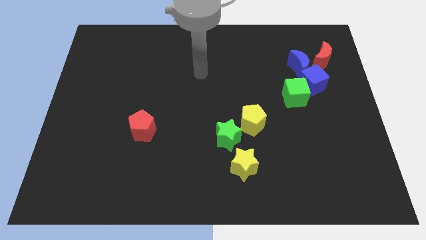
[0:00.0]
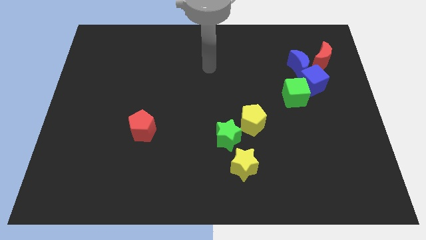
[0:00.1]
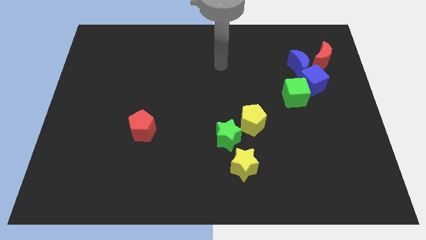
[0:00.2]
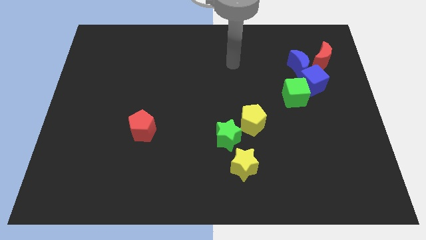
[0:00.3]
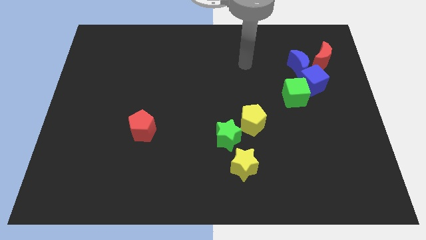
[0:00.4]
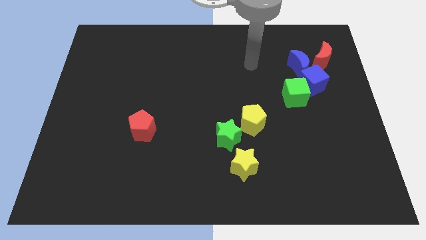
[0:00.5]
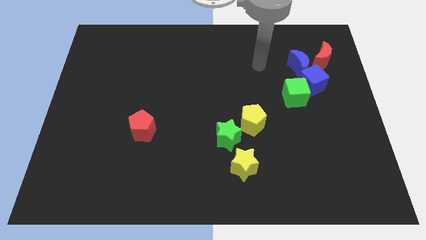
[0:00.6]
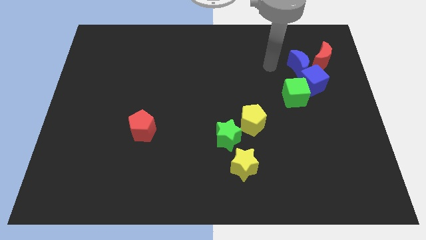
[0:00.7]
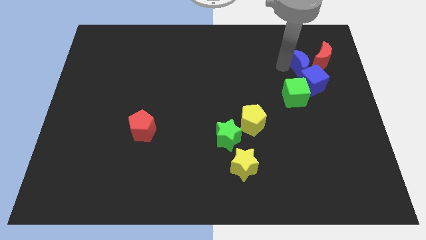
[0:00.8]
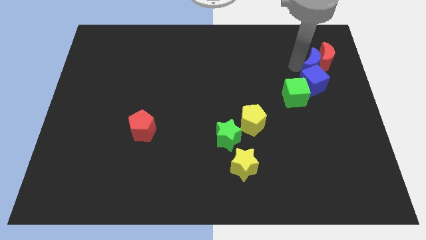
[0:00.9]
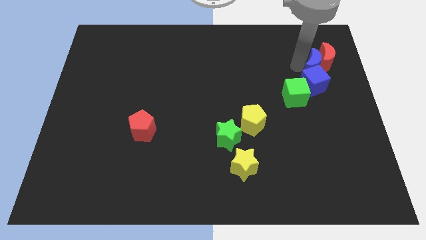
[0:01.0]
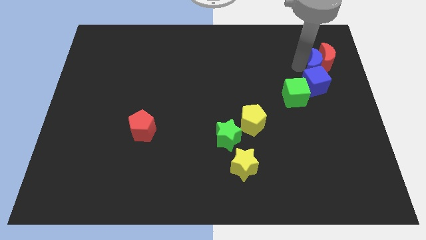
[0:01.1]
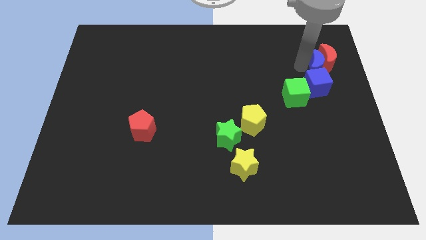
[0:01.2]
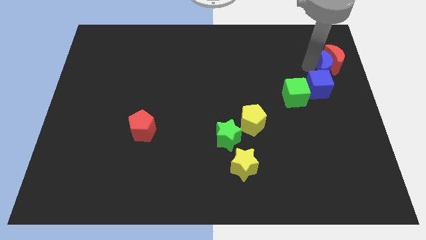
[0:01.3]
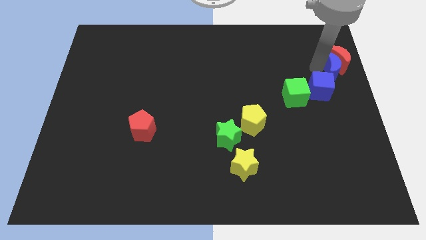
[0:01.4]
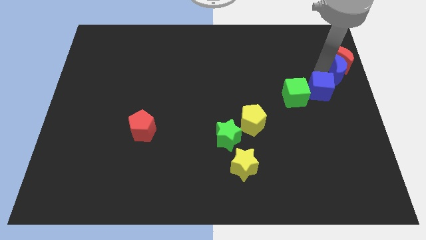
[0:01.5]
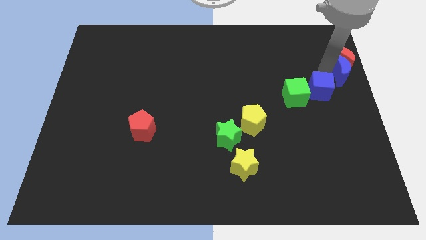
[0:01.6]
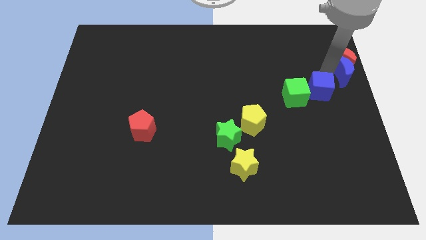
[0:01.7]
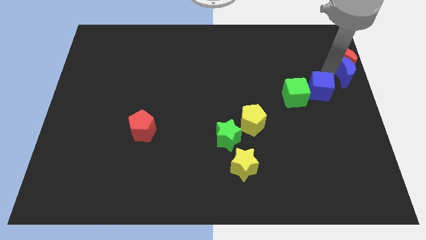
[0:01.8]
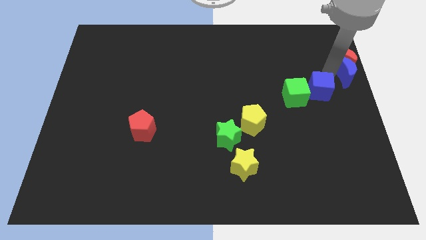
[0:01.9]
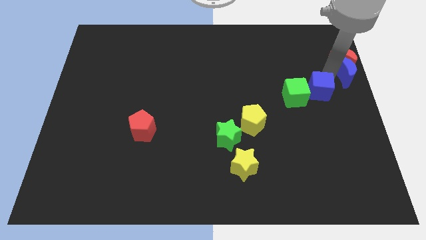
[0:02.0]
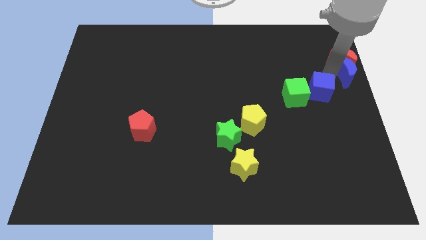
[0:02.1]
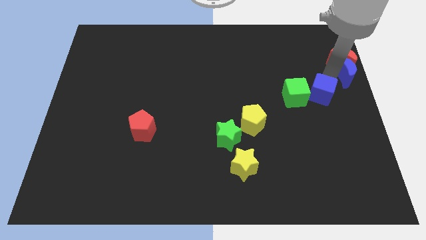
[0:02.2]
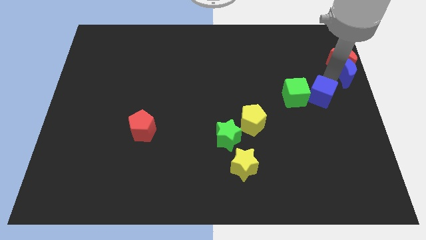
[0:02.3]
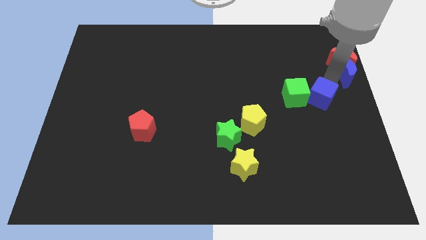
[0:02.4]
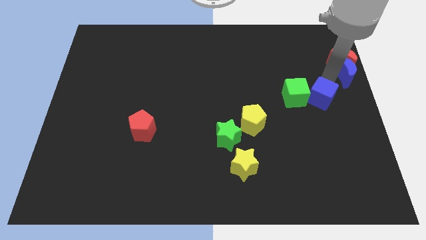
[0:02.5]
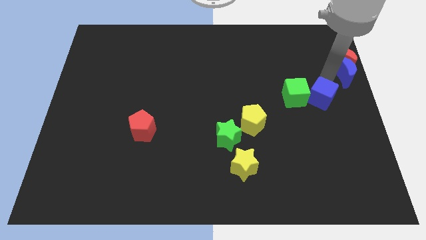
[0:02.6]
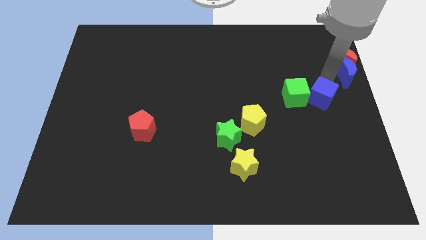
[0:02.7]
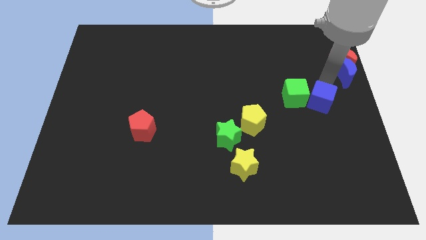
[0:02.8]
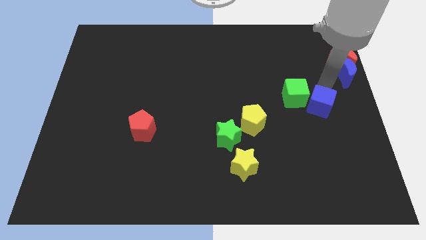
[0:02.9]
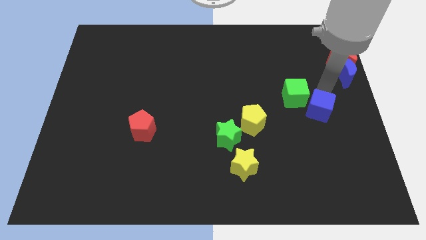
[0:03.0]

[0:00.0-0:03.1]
separate the blue cube from the blue moon, green cube, and red moon

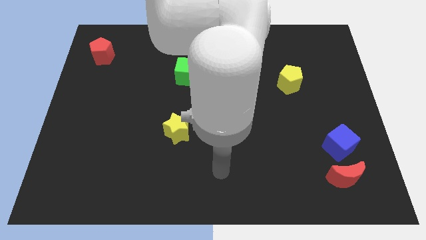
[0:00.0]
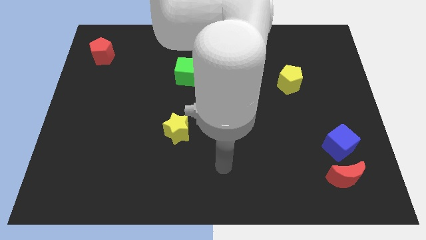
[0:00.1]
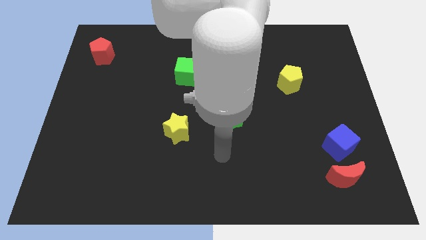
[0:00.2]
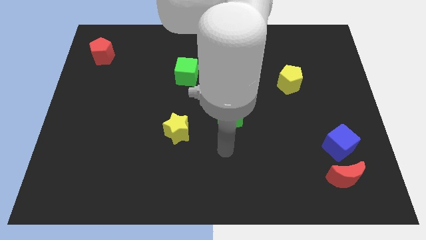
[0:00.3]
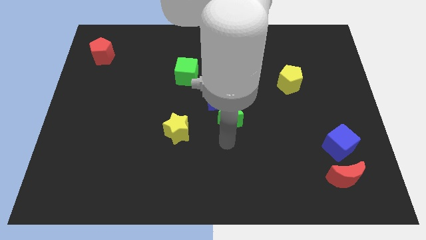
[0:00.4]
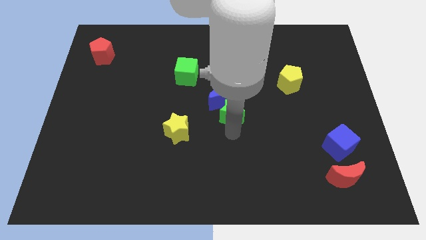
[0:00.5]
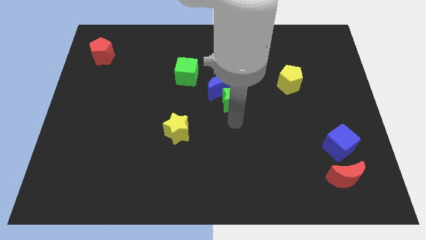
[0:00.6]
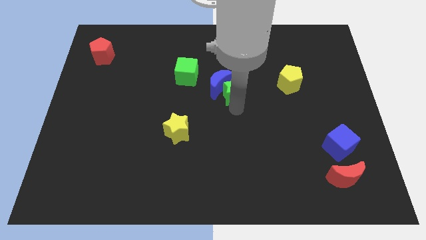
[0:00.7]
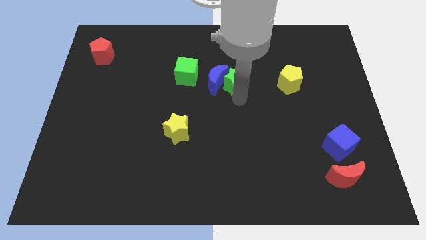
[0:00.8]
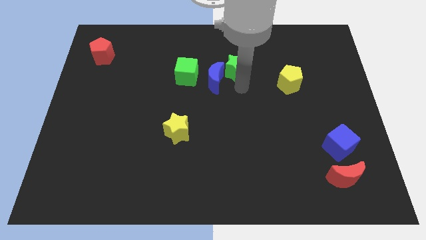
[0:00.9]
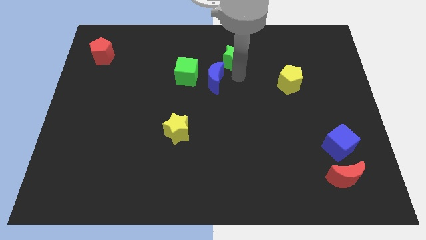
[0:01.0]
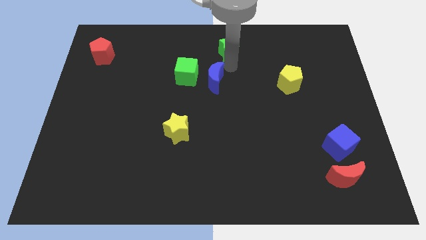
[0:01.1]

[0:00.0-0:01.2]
pull the blue moon apart from the green star

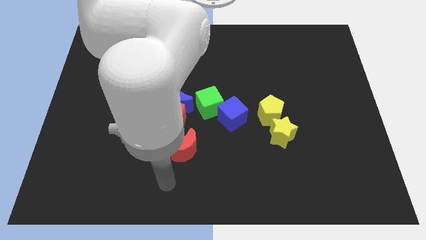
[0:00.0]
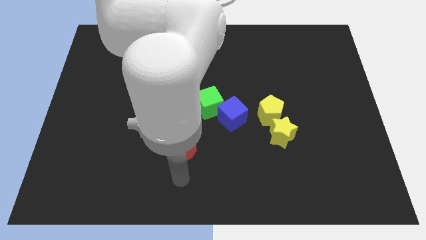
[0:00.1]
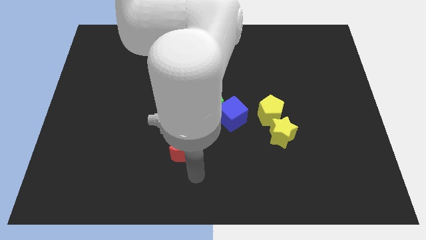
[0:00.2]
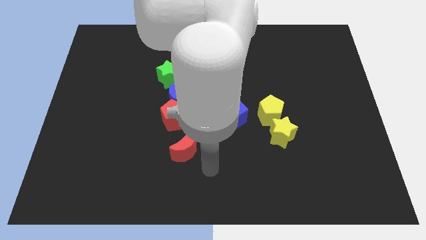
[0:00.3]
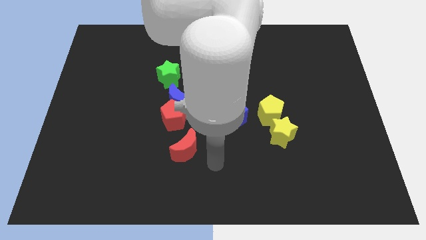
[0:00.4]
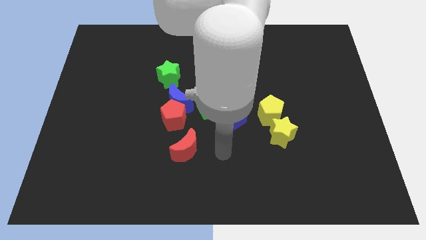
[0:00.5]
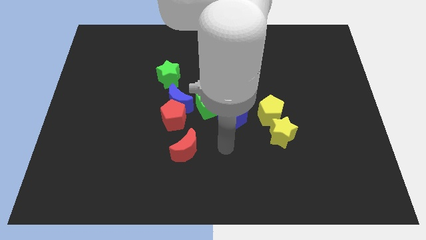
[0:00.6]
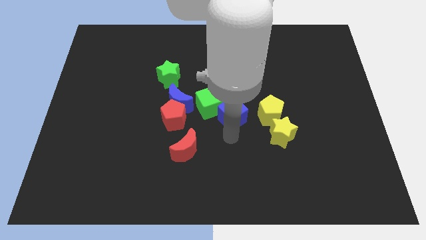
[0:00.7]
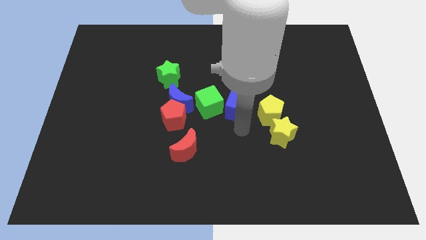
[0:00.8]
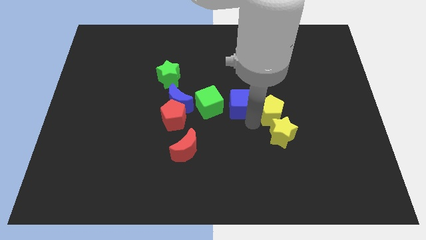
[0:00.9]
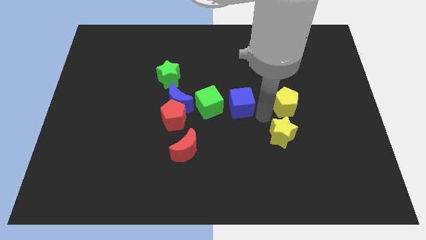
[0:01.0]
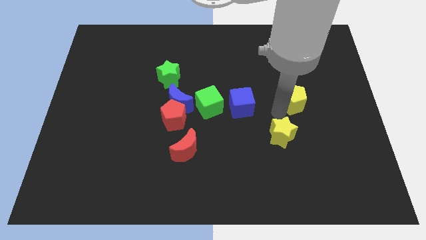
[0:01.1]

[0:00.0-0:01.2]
separate the yellow star from the yellow pentagon

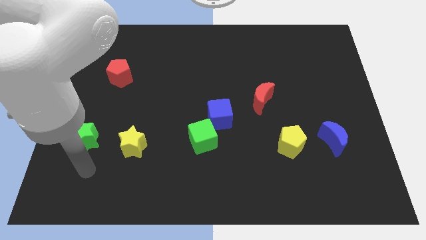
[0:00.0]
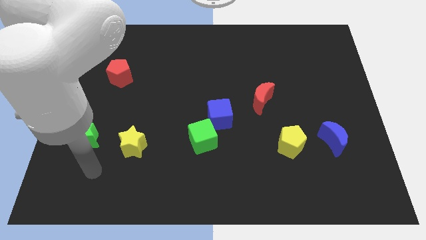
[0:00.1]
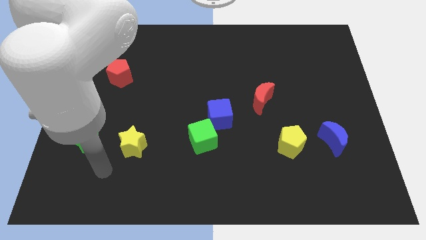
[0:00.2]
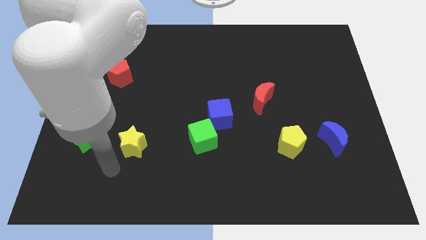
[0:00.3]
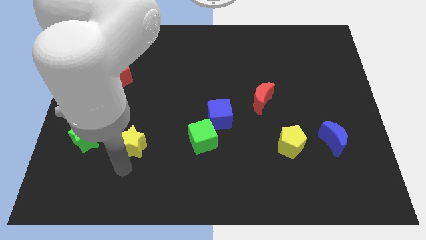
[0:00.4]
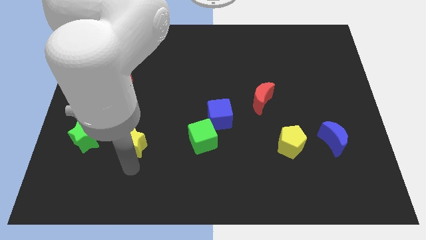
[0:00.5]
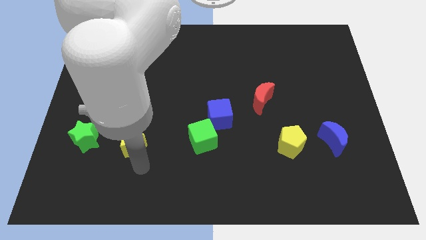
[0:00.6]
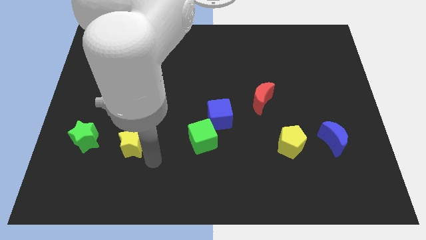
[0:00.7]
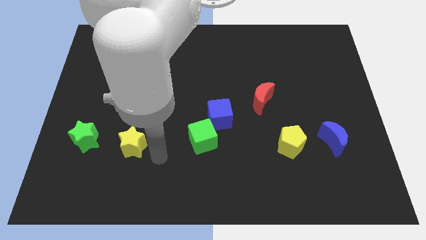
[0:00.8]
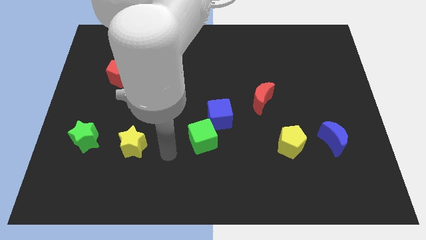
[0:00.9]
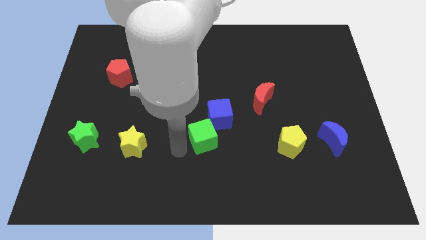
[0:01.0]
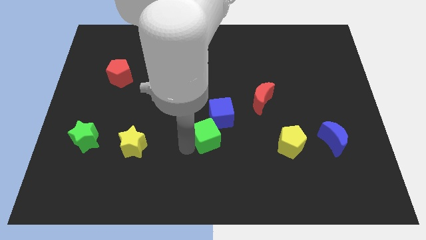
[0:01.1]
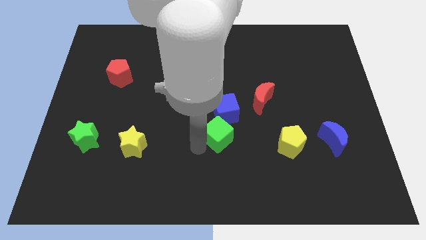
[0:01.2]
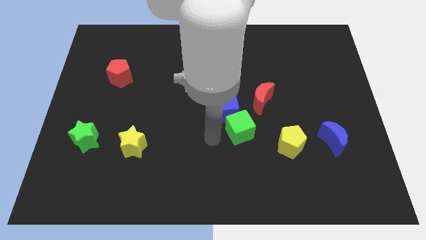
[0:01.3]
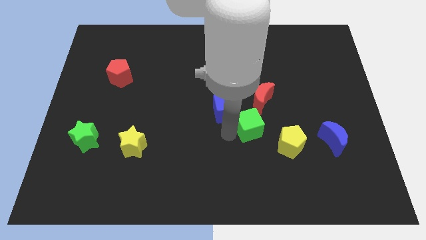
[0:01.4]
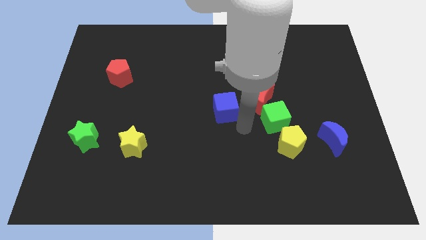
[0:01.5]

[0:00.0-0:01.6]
pull the blue cube apart from the green cube

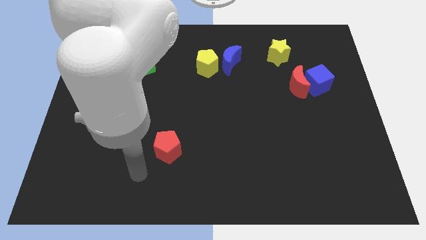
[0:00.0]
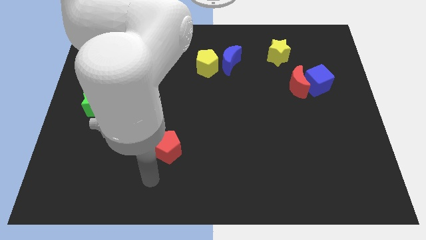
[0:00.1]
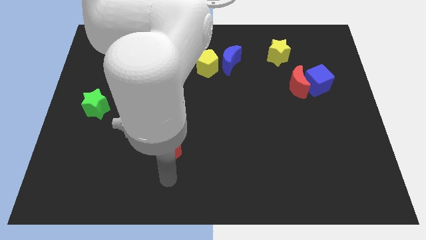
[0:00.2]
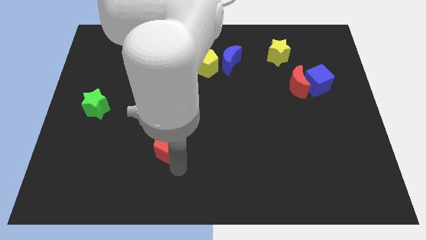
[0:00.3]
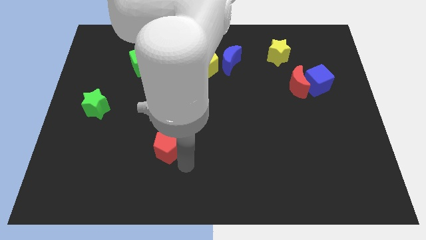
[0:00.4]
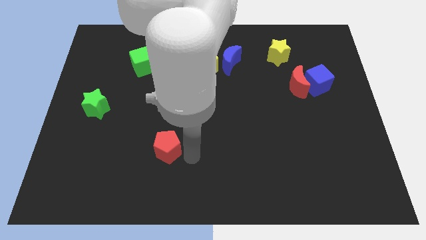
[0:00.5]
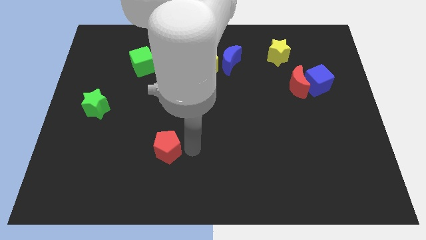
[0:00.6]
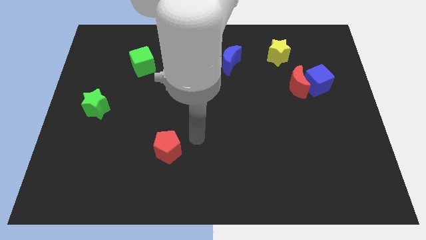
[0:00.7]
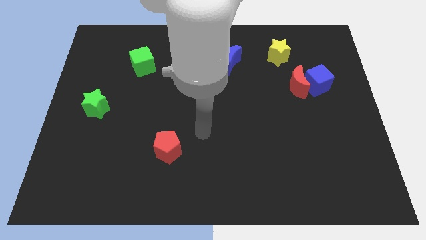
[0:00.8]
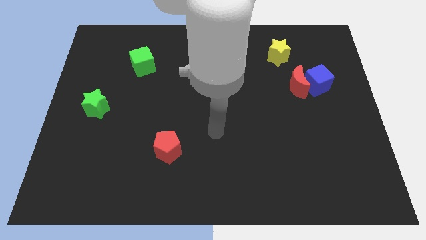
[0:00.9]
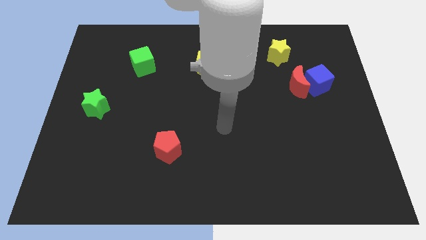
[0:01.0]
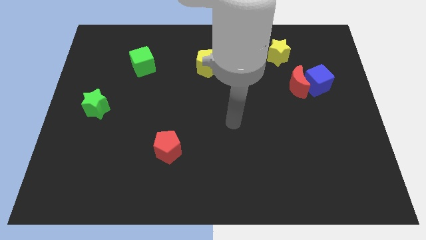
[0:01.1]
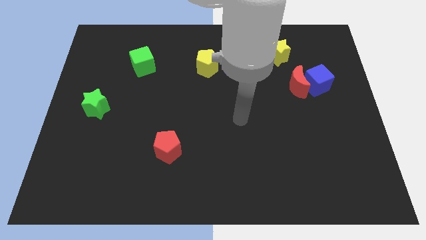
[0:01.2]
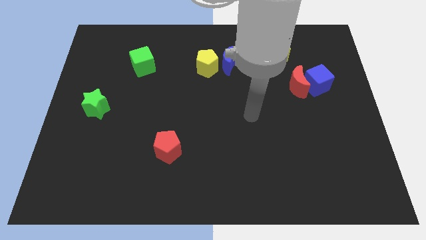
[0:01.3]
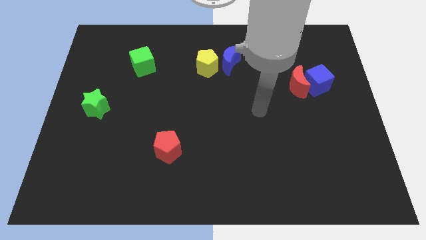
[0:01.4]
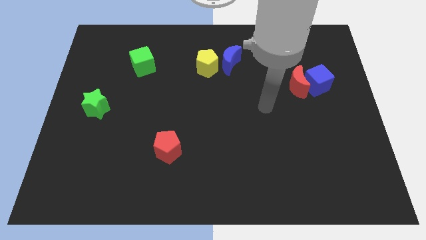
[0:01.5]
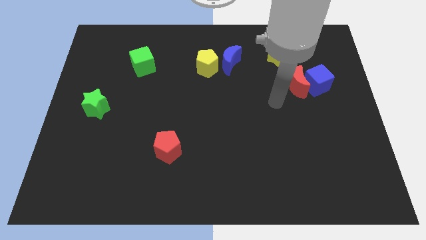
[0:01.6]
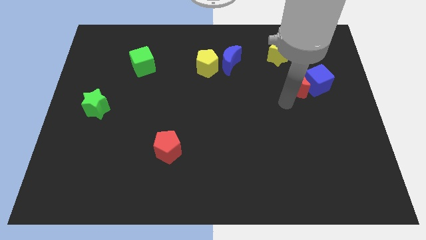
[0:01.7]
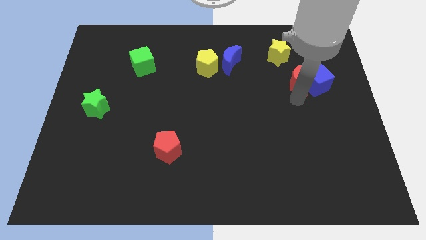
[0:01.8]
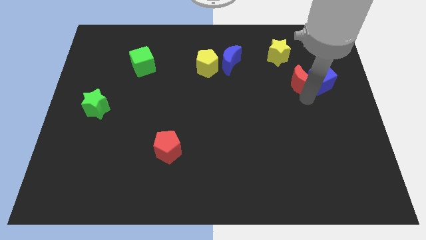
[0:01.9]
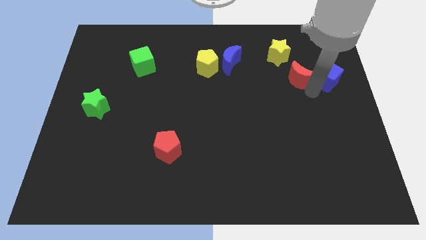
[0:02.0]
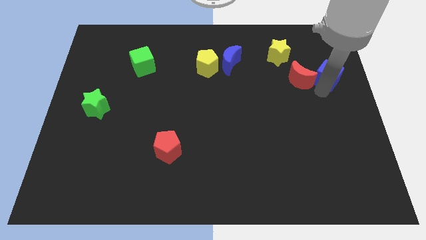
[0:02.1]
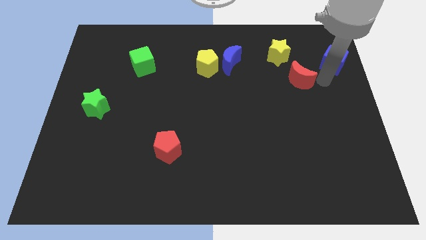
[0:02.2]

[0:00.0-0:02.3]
separate the red moon from the blue cube

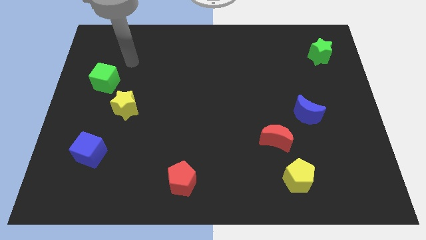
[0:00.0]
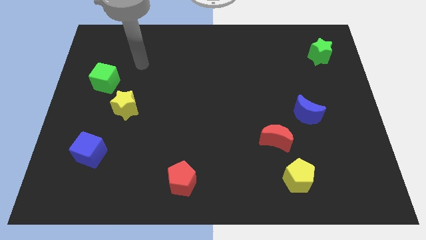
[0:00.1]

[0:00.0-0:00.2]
separate the red moon from the yellow pentagon
